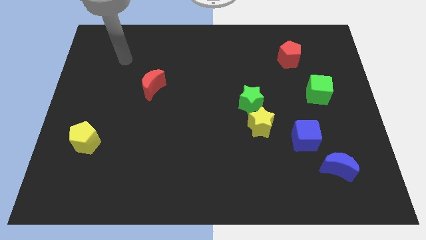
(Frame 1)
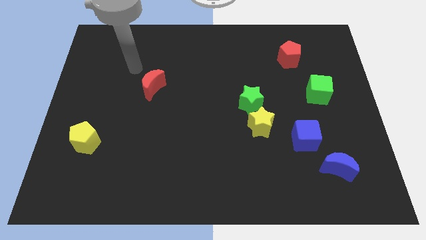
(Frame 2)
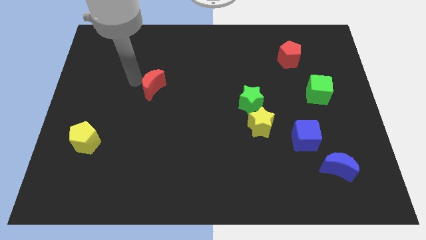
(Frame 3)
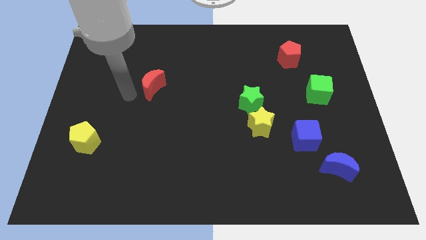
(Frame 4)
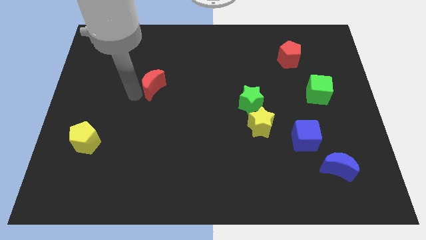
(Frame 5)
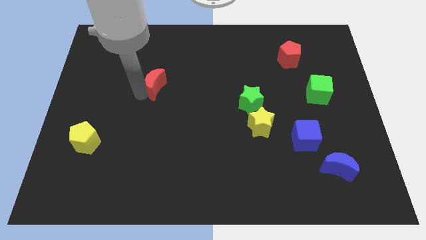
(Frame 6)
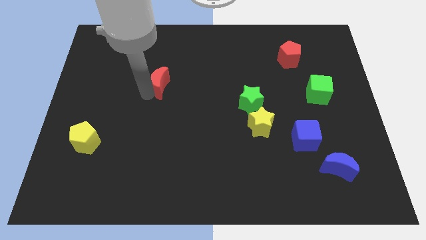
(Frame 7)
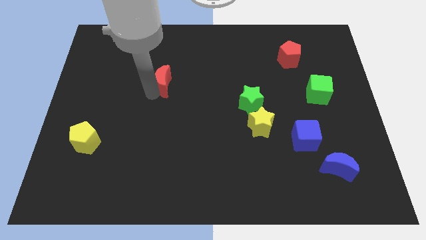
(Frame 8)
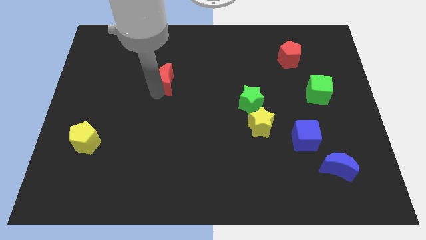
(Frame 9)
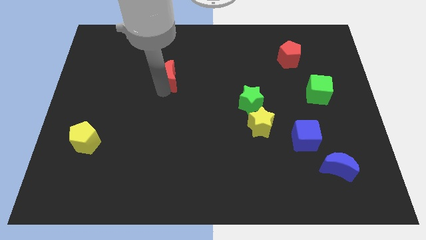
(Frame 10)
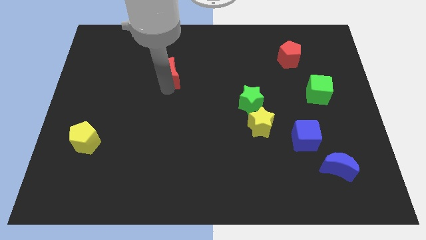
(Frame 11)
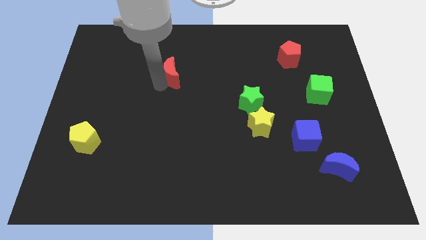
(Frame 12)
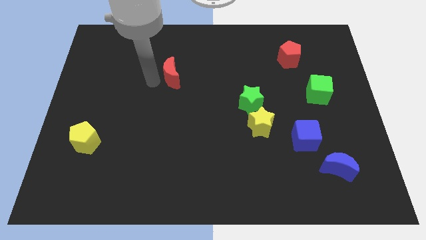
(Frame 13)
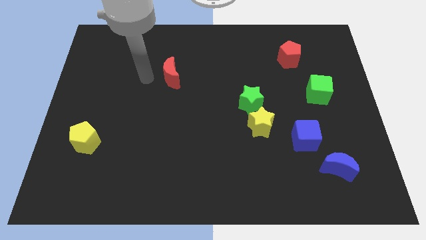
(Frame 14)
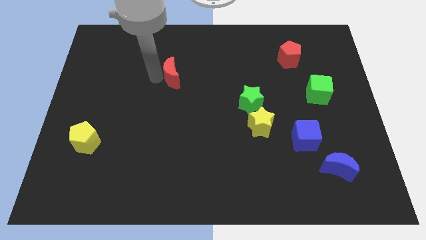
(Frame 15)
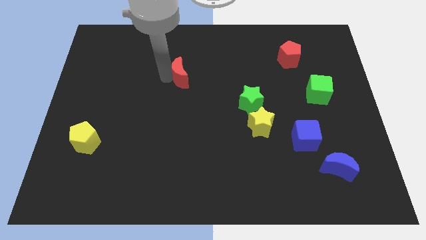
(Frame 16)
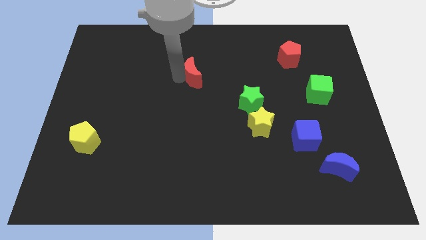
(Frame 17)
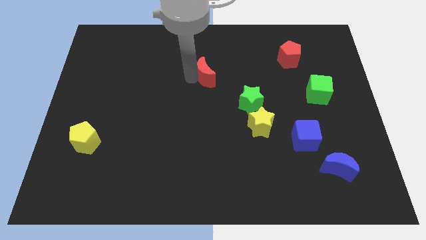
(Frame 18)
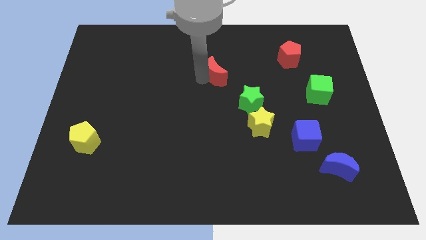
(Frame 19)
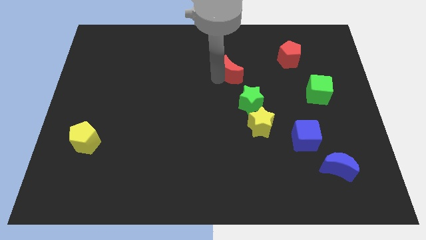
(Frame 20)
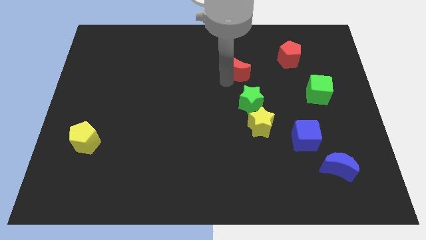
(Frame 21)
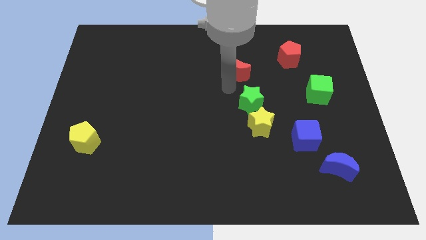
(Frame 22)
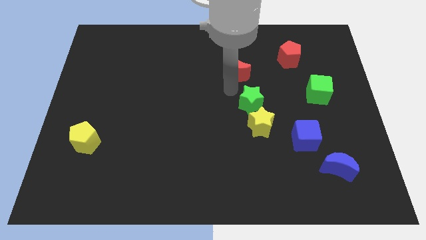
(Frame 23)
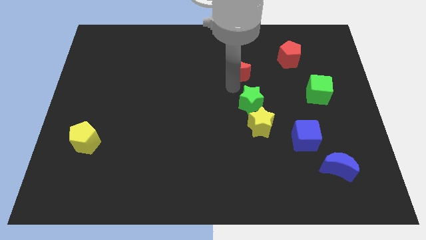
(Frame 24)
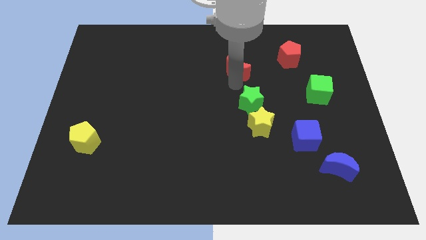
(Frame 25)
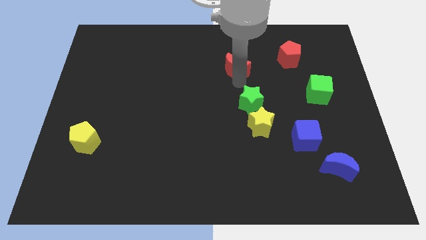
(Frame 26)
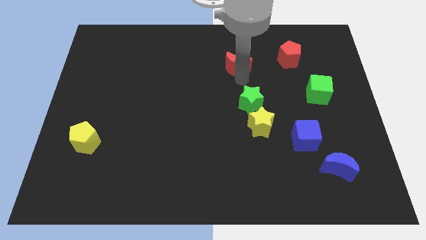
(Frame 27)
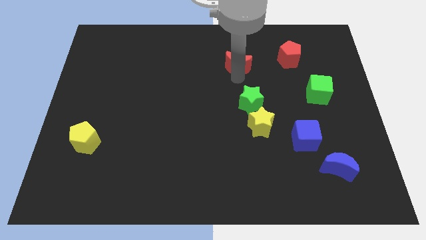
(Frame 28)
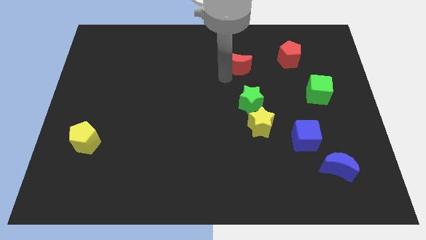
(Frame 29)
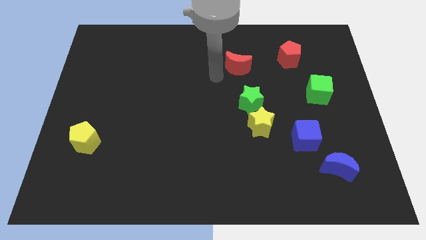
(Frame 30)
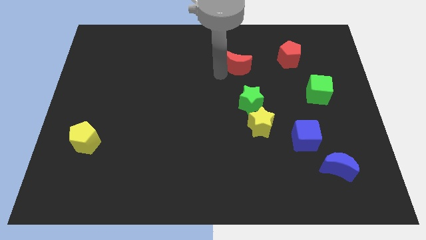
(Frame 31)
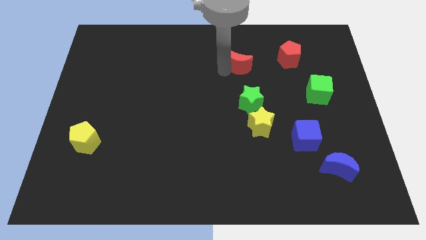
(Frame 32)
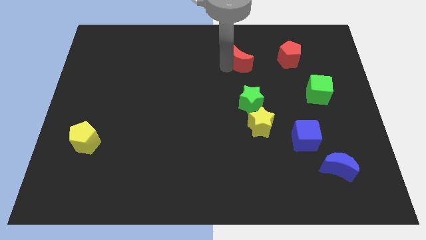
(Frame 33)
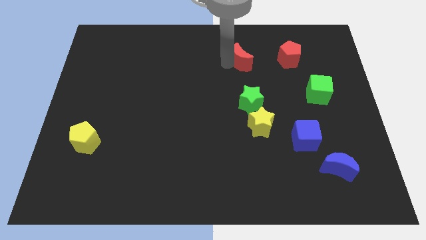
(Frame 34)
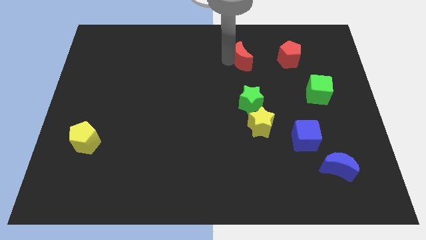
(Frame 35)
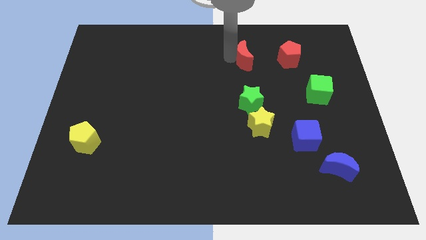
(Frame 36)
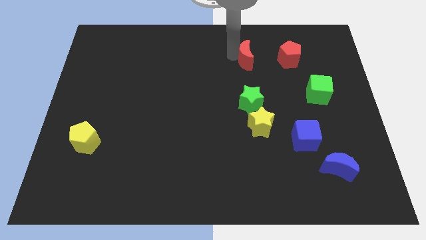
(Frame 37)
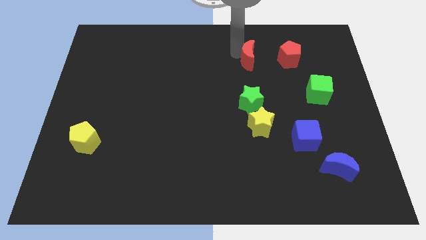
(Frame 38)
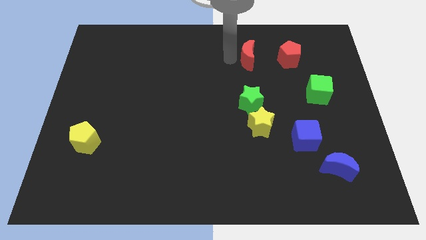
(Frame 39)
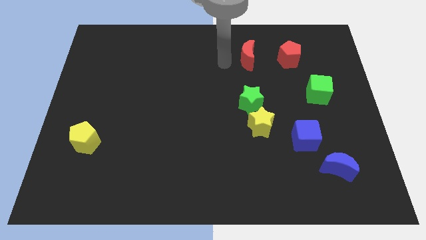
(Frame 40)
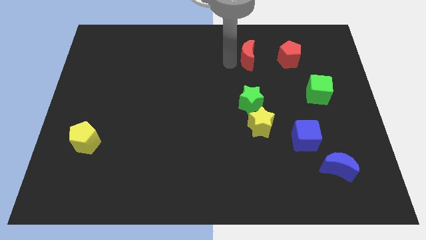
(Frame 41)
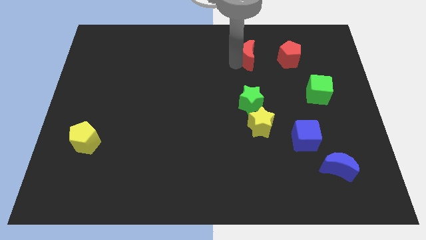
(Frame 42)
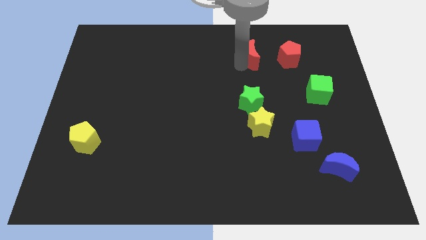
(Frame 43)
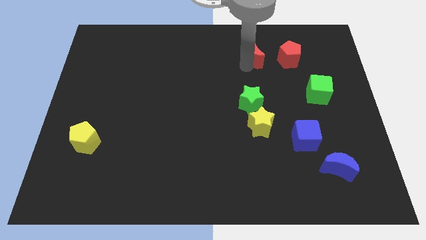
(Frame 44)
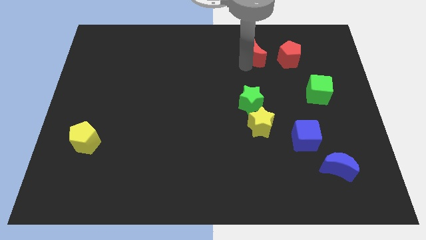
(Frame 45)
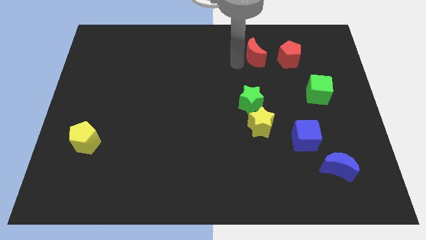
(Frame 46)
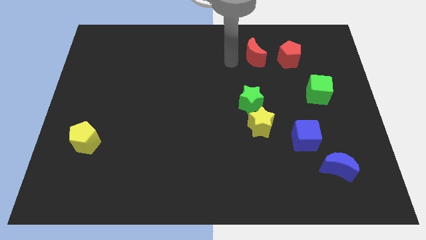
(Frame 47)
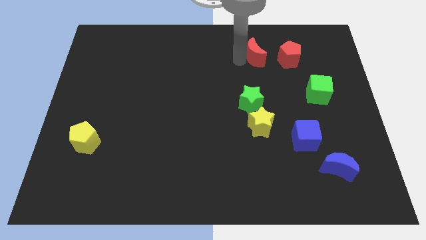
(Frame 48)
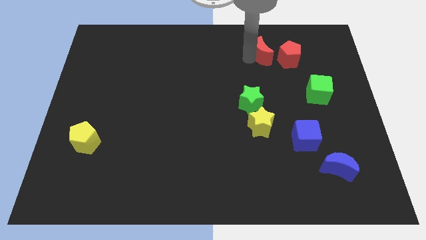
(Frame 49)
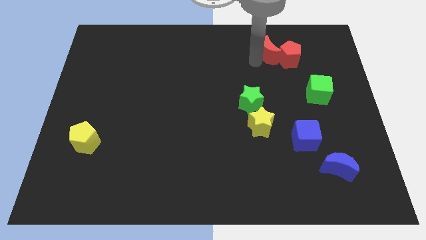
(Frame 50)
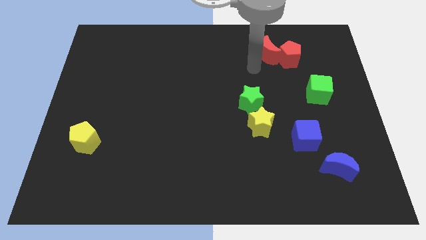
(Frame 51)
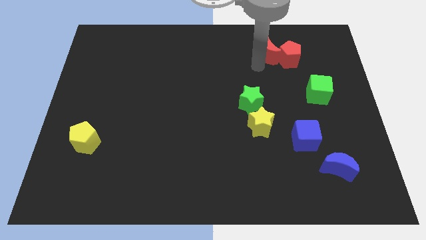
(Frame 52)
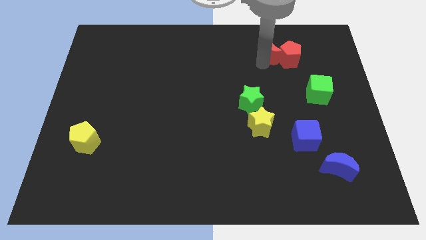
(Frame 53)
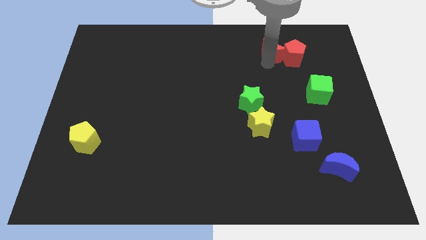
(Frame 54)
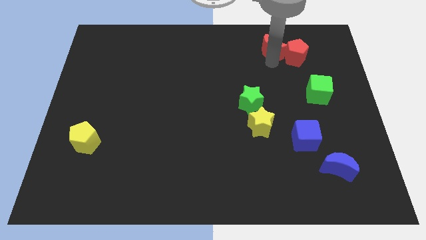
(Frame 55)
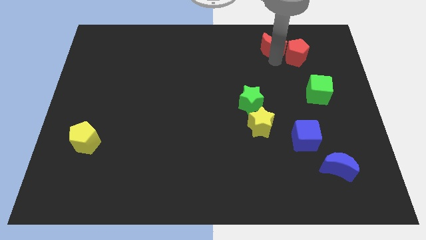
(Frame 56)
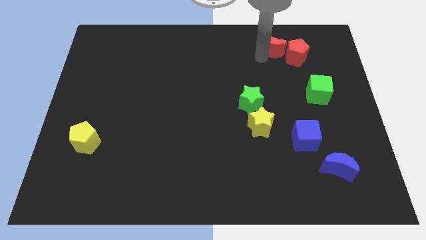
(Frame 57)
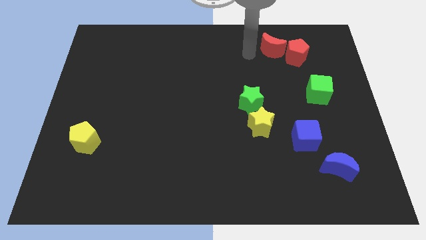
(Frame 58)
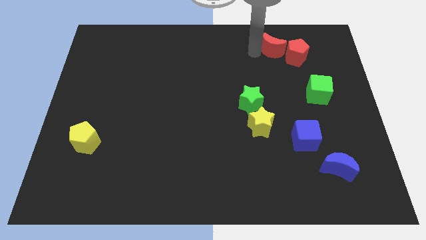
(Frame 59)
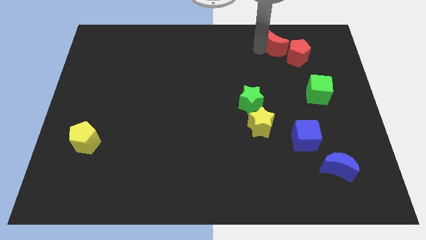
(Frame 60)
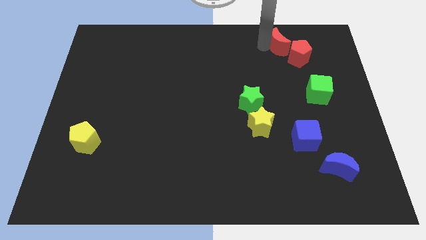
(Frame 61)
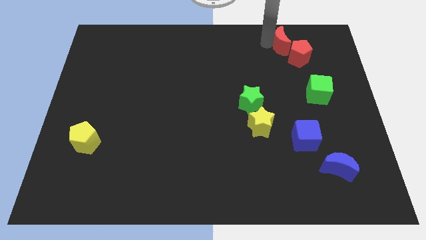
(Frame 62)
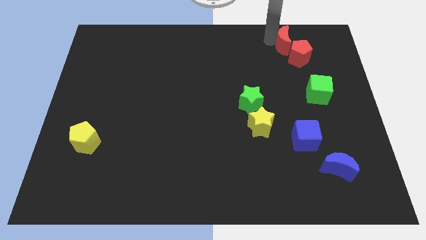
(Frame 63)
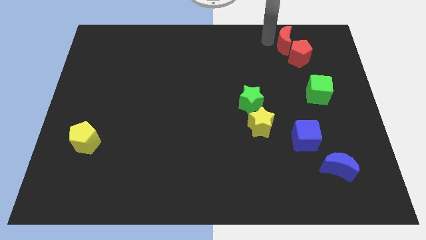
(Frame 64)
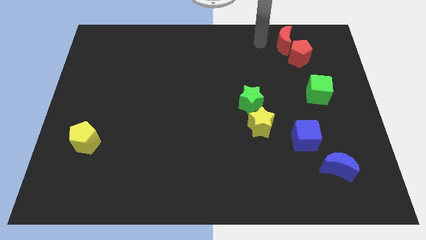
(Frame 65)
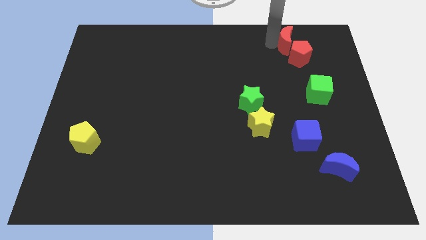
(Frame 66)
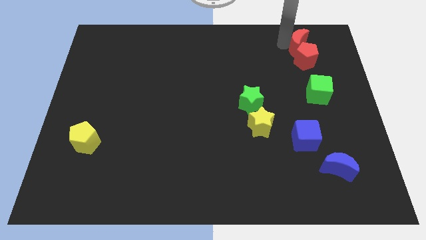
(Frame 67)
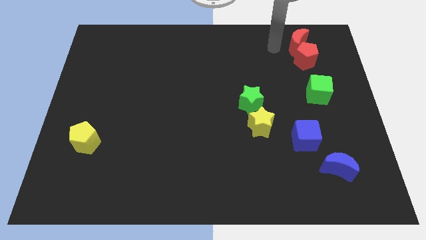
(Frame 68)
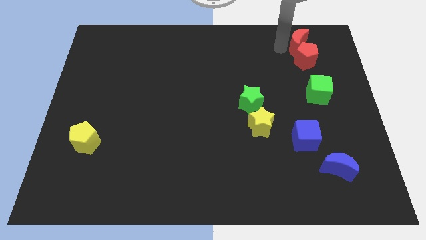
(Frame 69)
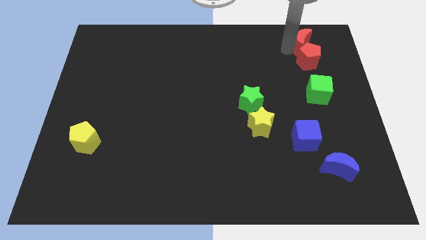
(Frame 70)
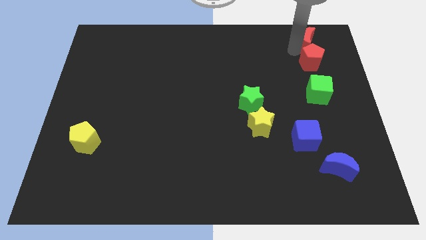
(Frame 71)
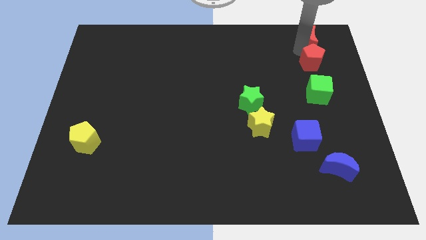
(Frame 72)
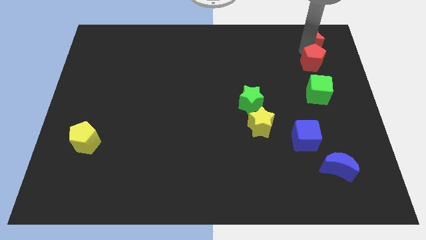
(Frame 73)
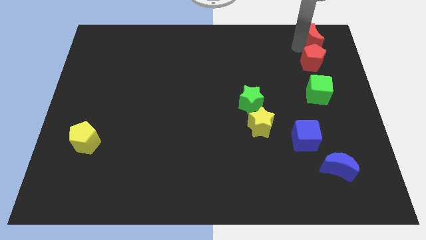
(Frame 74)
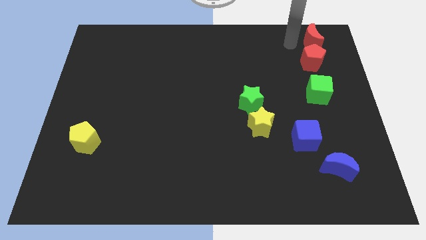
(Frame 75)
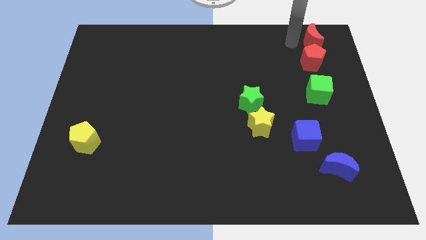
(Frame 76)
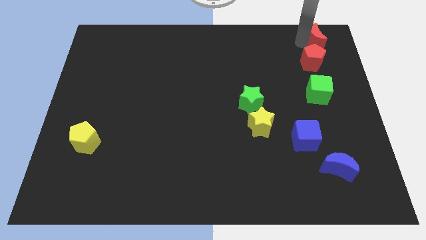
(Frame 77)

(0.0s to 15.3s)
push the red moon to the upper right corner
